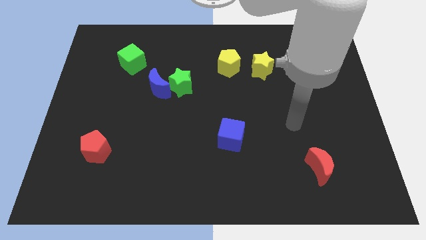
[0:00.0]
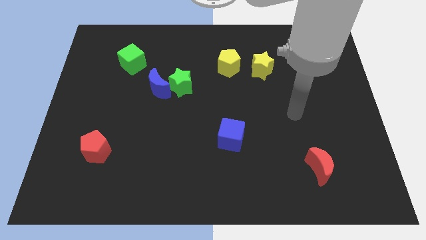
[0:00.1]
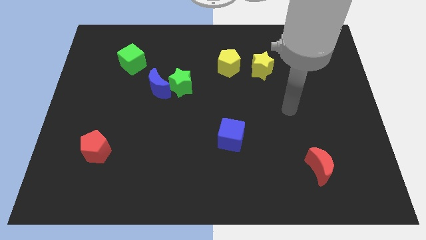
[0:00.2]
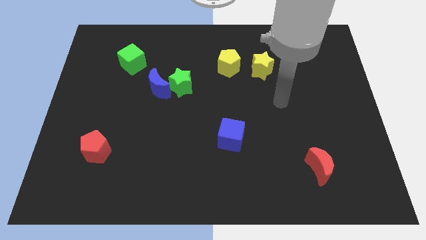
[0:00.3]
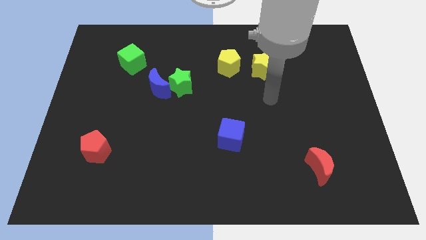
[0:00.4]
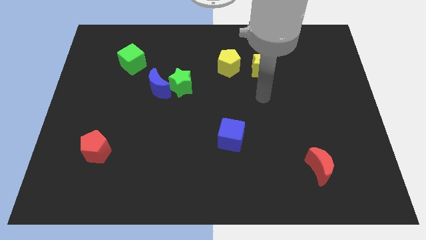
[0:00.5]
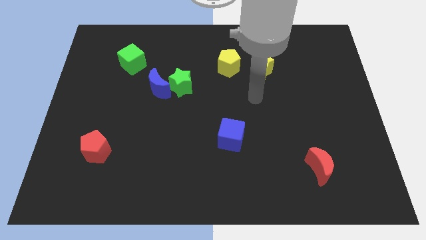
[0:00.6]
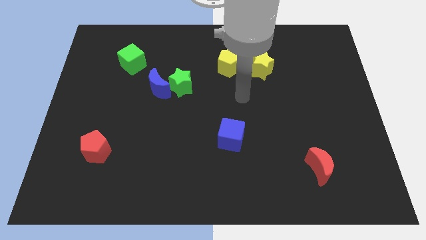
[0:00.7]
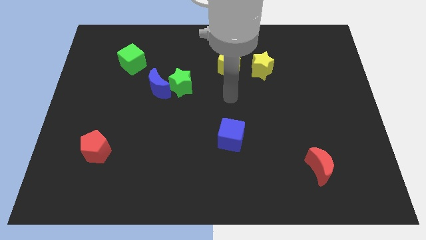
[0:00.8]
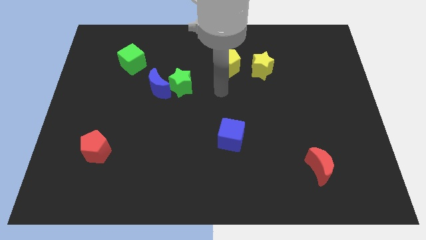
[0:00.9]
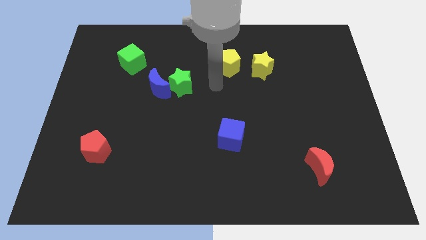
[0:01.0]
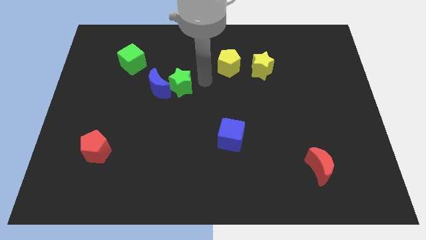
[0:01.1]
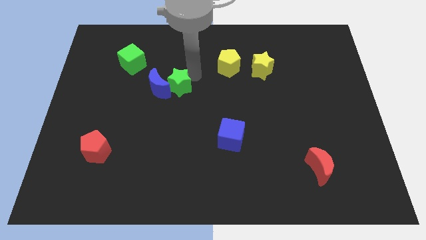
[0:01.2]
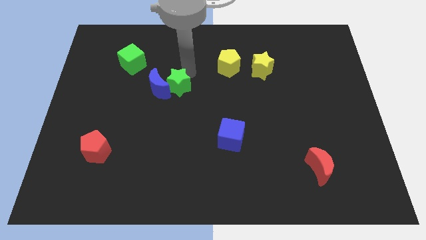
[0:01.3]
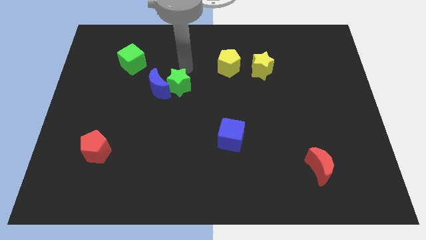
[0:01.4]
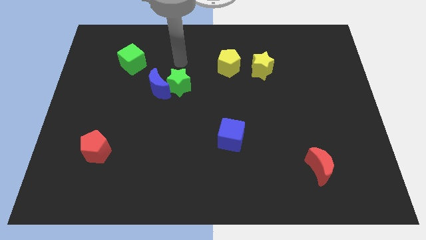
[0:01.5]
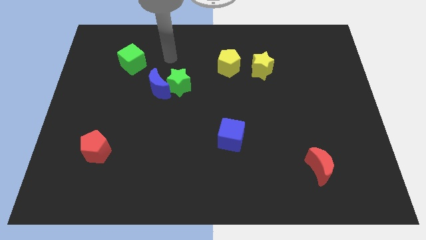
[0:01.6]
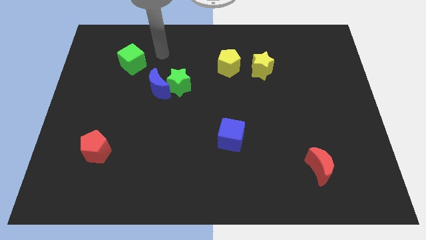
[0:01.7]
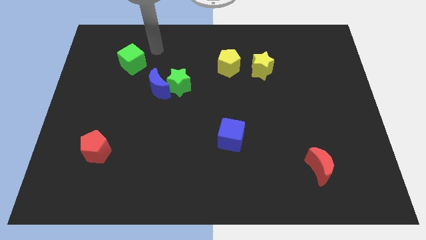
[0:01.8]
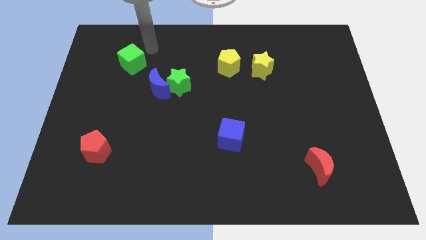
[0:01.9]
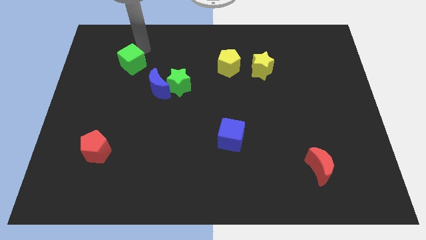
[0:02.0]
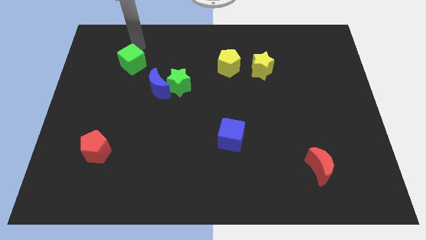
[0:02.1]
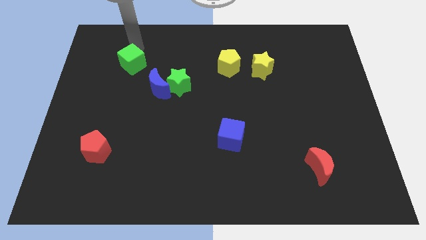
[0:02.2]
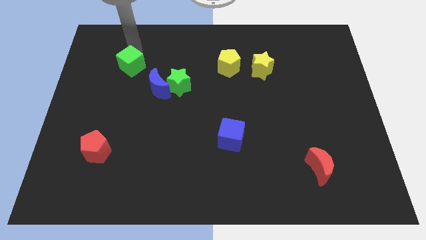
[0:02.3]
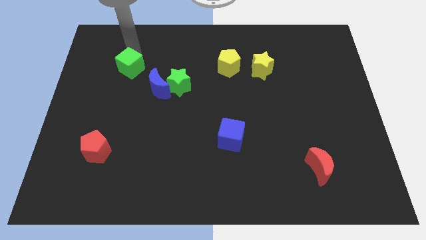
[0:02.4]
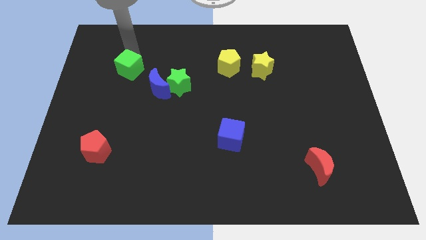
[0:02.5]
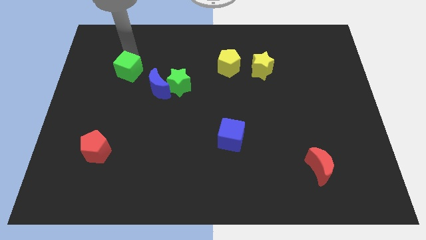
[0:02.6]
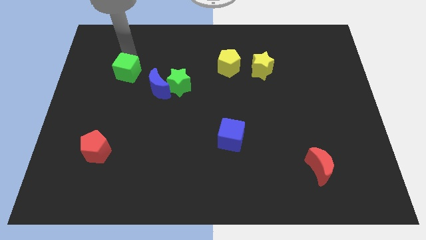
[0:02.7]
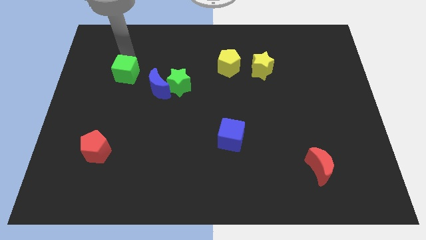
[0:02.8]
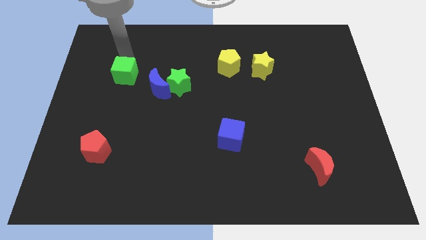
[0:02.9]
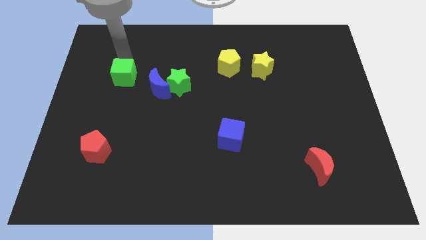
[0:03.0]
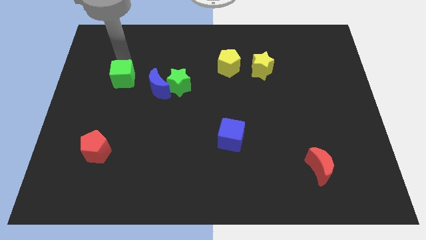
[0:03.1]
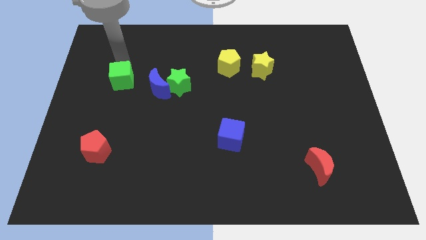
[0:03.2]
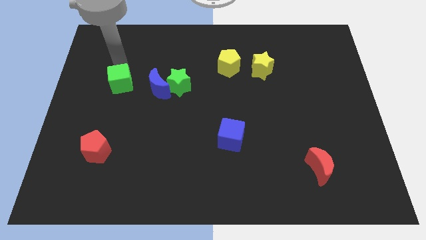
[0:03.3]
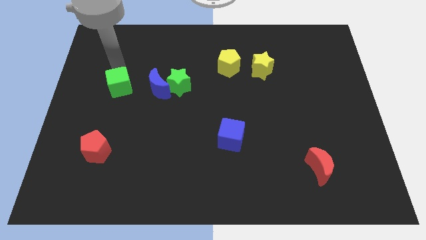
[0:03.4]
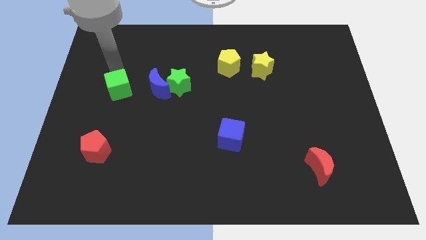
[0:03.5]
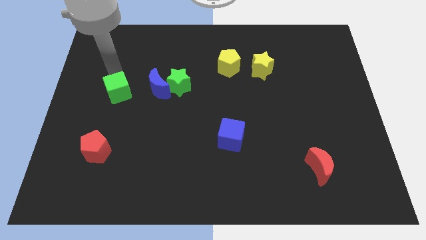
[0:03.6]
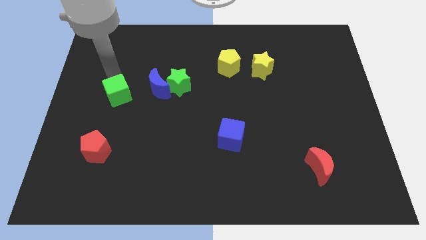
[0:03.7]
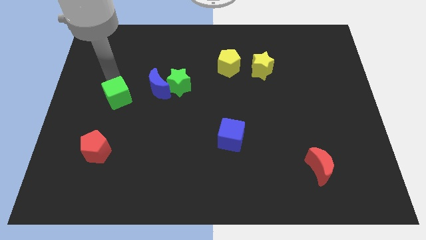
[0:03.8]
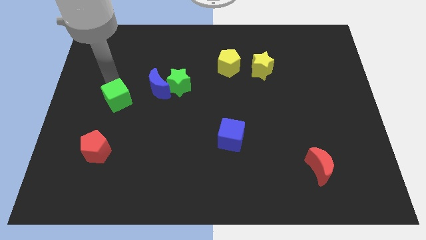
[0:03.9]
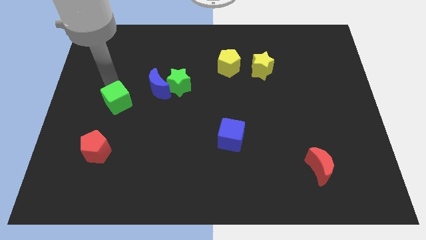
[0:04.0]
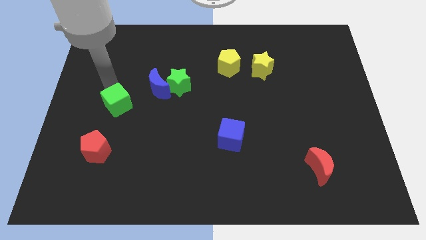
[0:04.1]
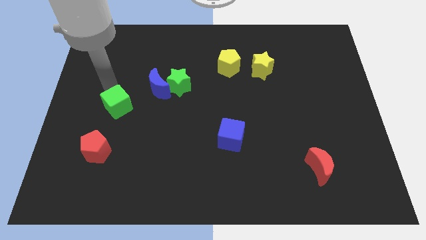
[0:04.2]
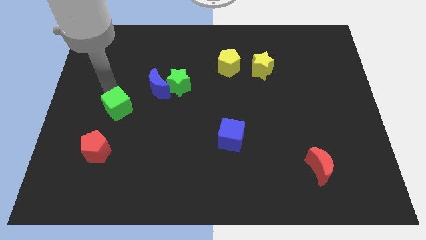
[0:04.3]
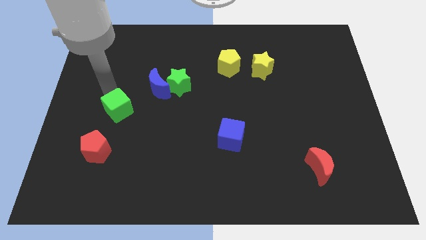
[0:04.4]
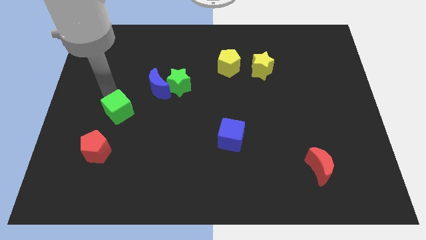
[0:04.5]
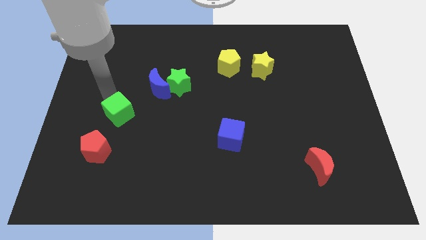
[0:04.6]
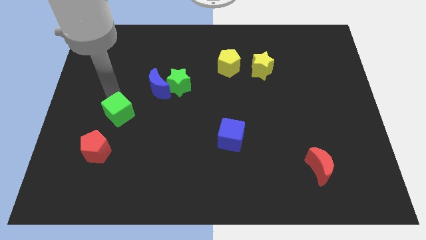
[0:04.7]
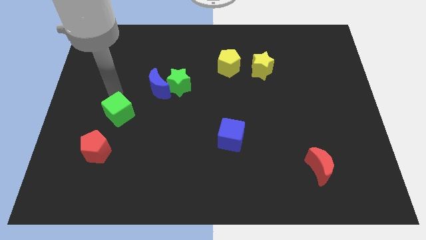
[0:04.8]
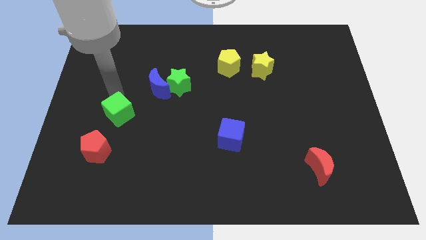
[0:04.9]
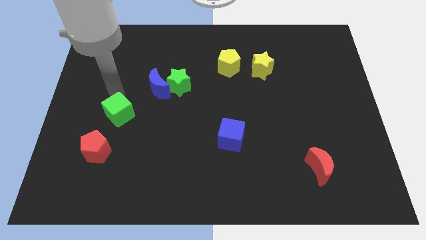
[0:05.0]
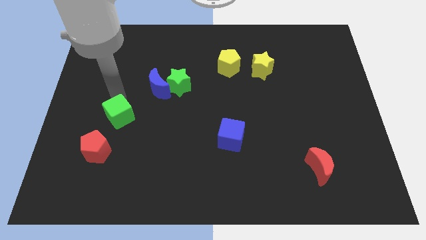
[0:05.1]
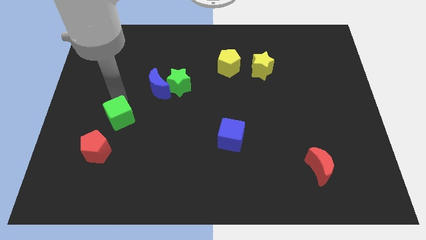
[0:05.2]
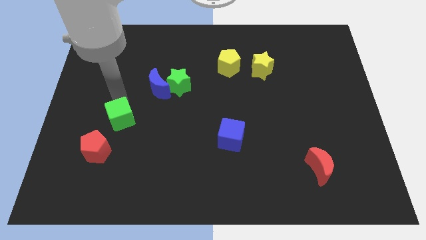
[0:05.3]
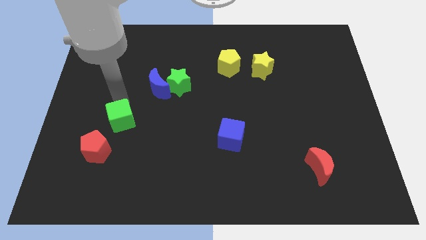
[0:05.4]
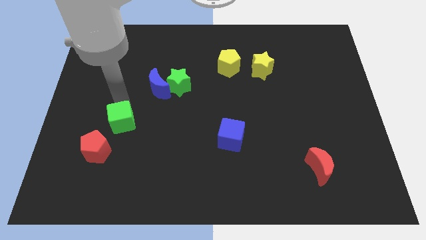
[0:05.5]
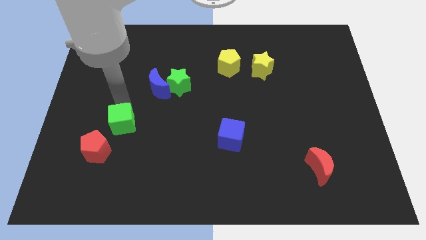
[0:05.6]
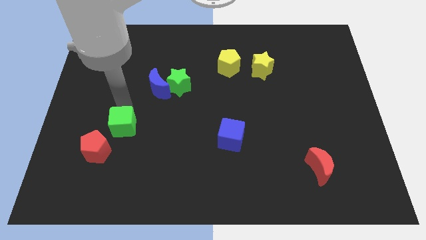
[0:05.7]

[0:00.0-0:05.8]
slide the green cube downwards

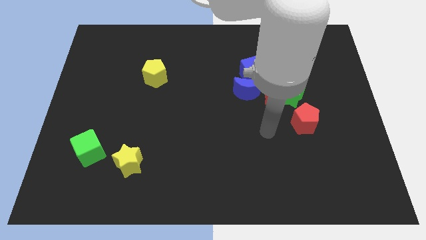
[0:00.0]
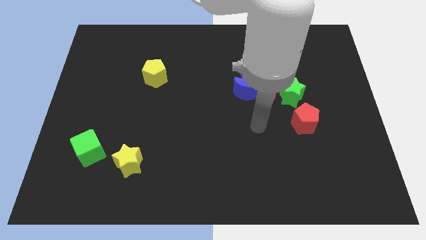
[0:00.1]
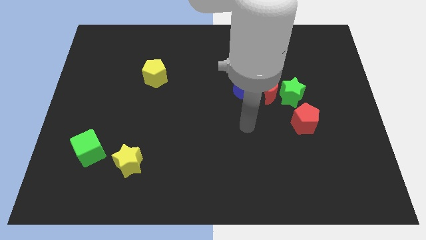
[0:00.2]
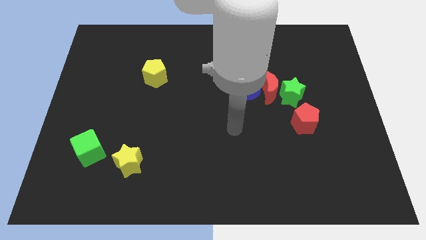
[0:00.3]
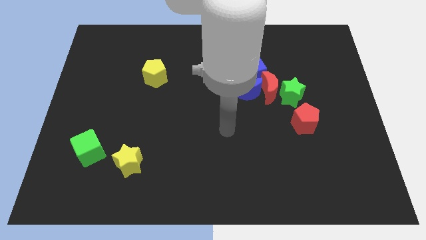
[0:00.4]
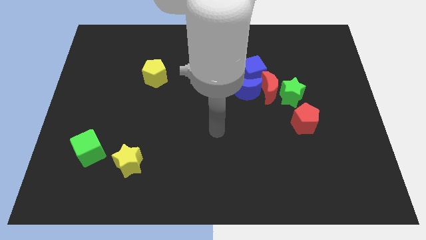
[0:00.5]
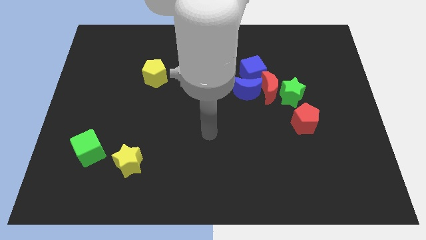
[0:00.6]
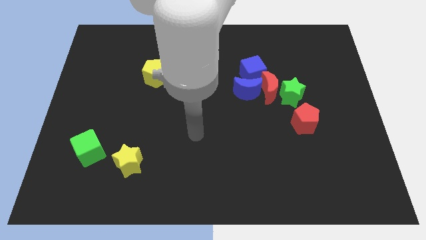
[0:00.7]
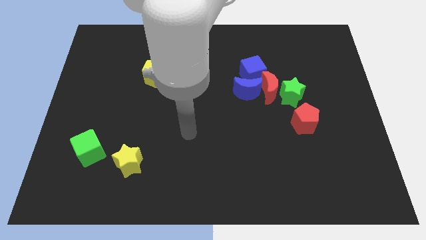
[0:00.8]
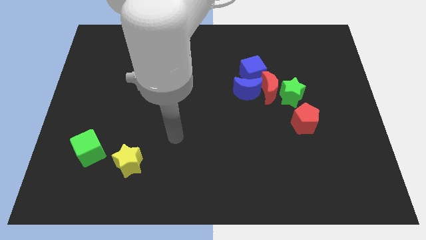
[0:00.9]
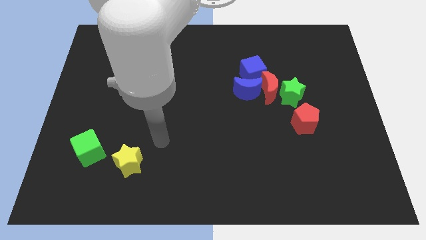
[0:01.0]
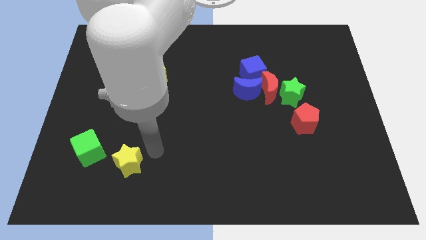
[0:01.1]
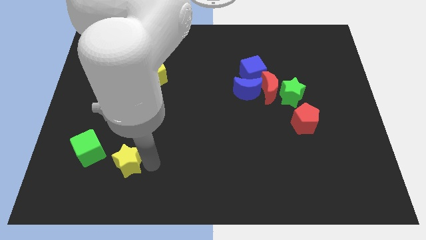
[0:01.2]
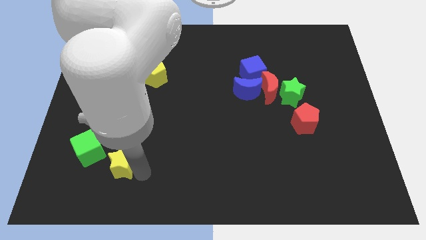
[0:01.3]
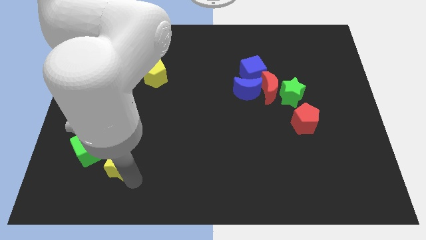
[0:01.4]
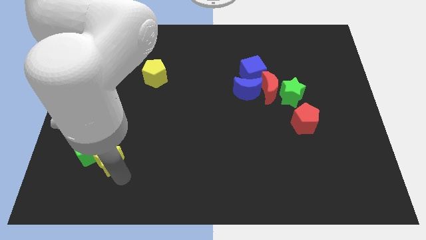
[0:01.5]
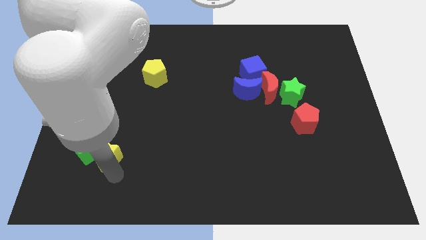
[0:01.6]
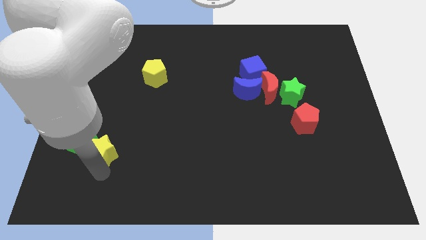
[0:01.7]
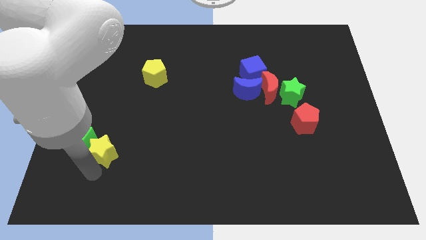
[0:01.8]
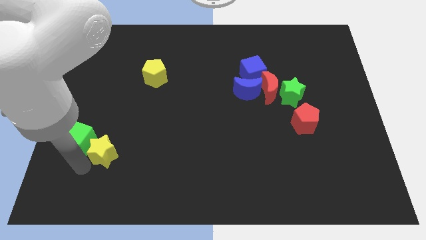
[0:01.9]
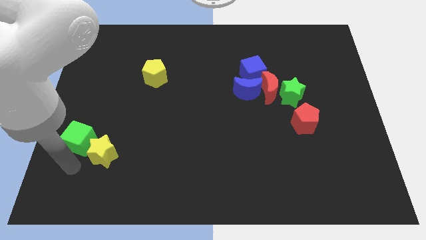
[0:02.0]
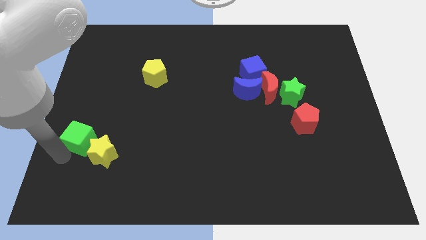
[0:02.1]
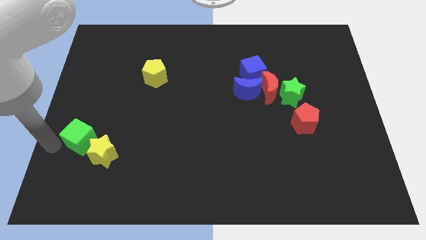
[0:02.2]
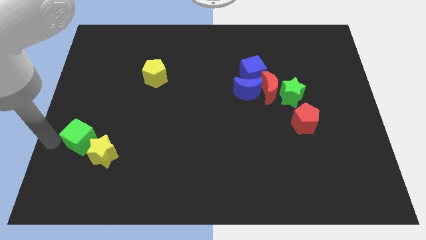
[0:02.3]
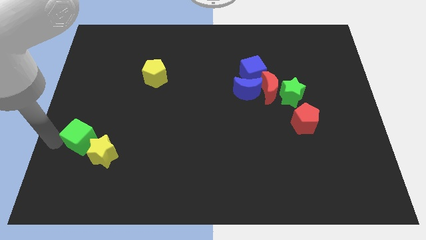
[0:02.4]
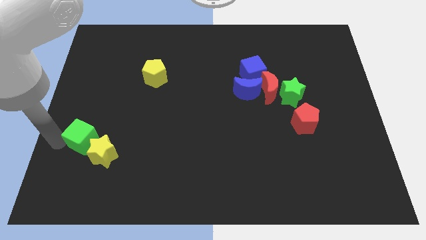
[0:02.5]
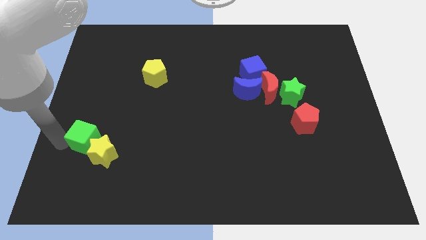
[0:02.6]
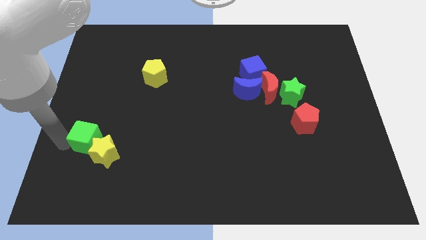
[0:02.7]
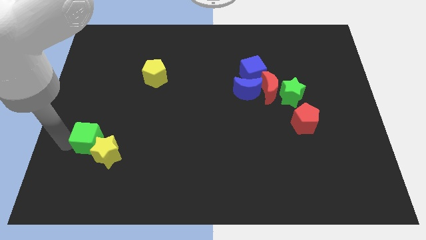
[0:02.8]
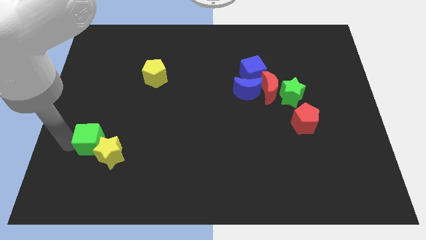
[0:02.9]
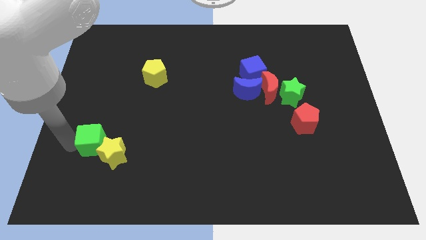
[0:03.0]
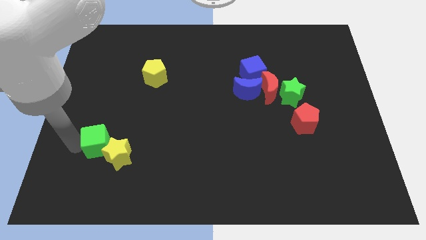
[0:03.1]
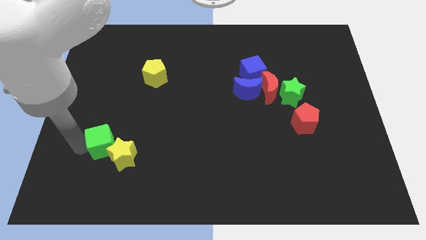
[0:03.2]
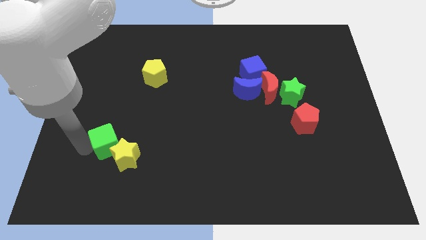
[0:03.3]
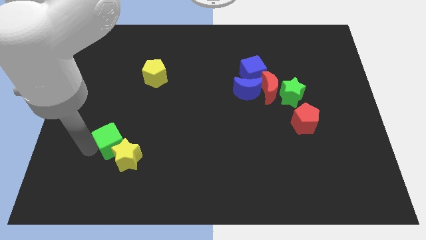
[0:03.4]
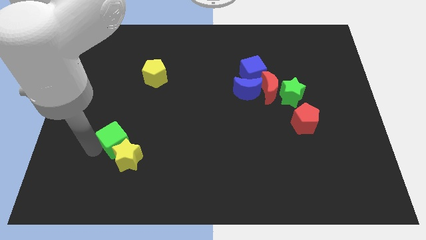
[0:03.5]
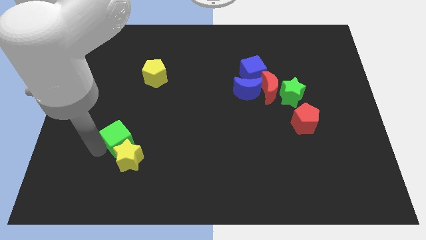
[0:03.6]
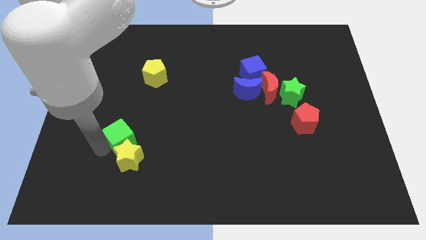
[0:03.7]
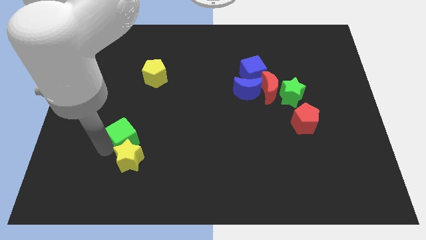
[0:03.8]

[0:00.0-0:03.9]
slide the green cube slightly upwards and then right
